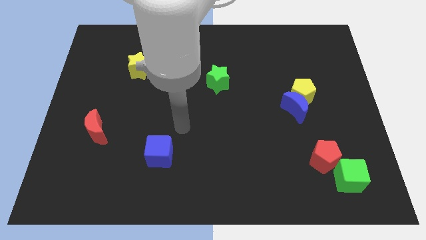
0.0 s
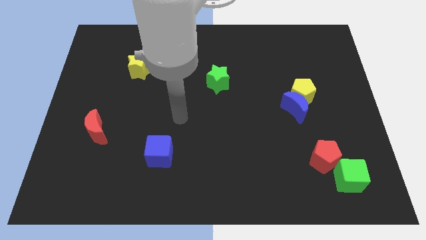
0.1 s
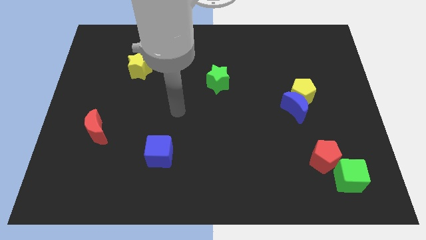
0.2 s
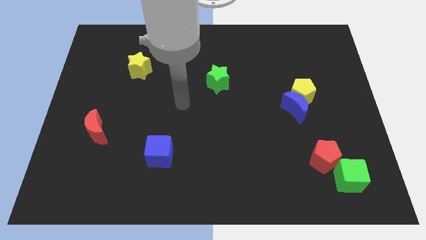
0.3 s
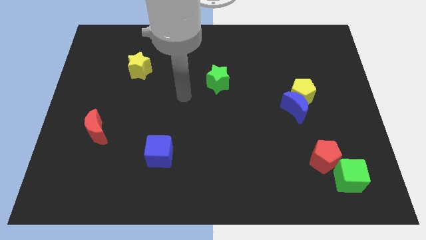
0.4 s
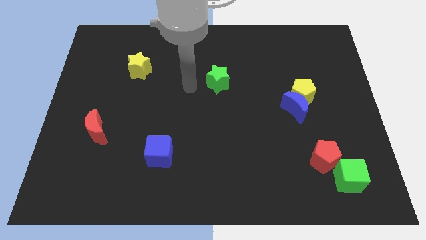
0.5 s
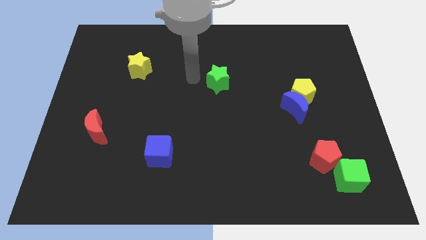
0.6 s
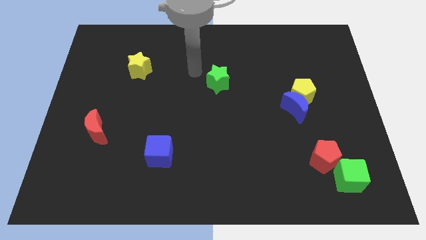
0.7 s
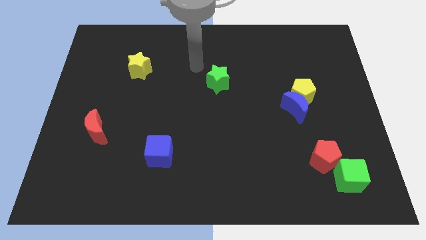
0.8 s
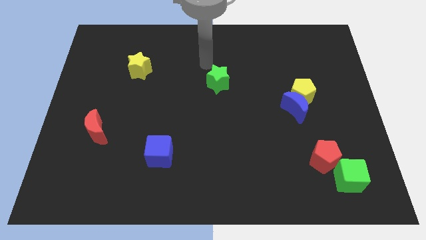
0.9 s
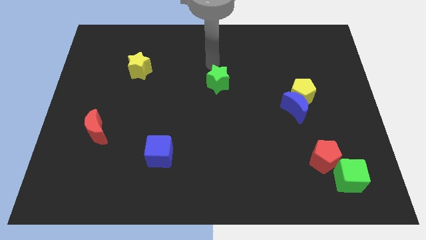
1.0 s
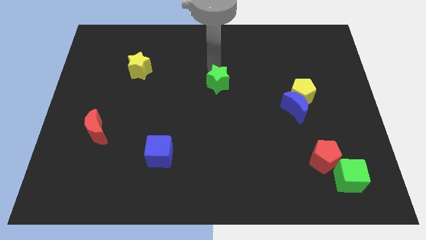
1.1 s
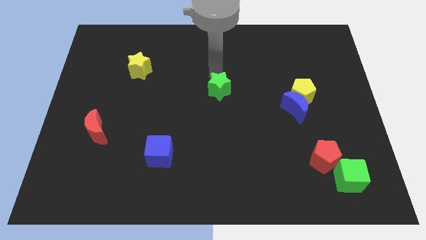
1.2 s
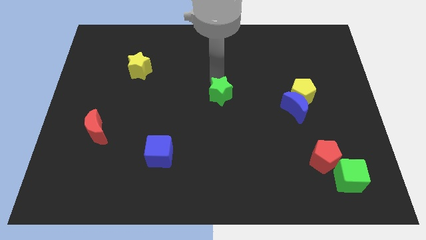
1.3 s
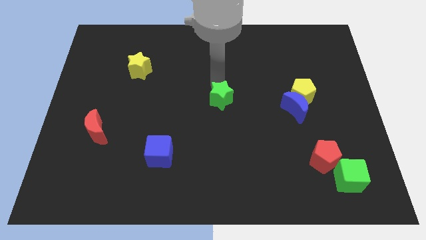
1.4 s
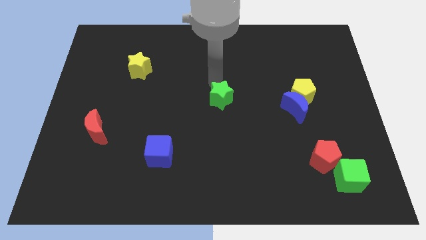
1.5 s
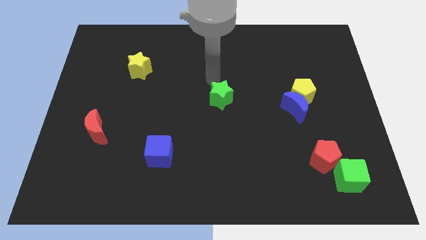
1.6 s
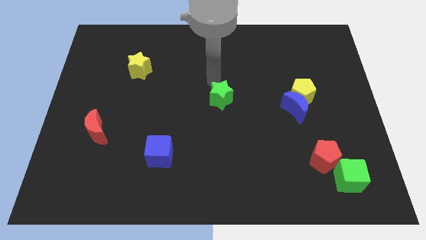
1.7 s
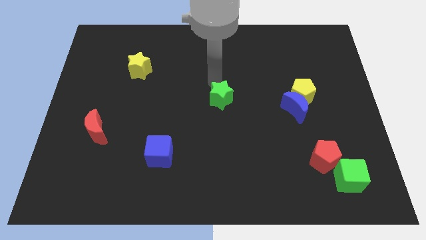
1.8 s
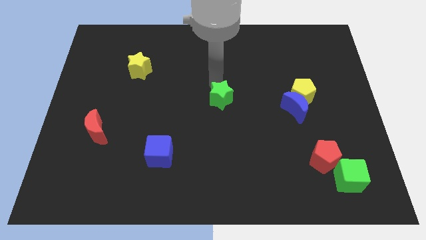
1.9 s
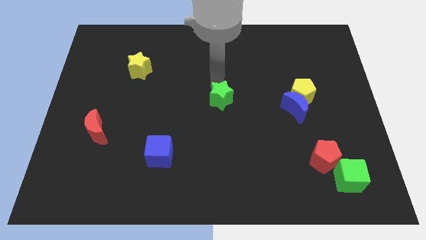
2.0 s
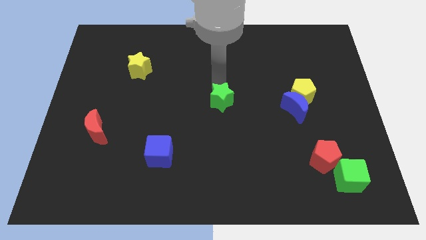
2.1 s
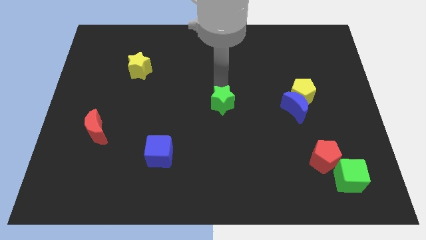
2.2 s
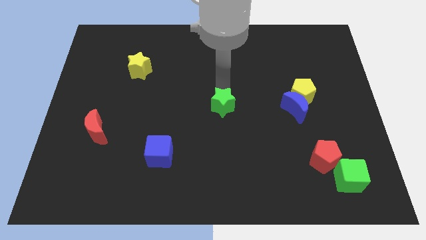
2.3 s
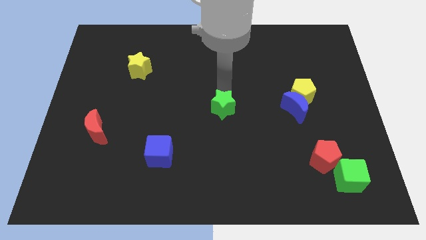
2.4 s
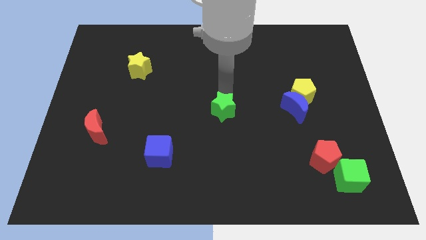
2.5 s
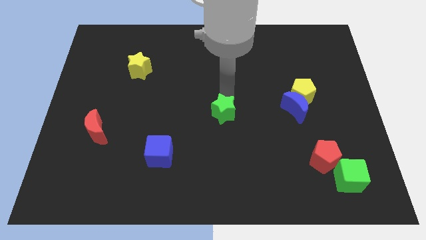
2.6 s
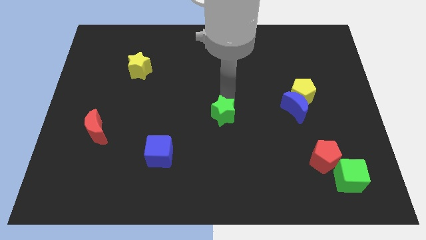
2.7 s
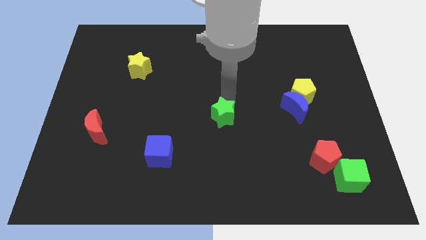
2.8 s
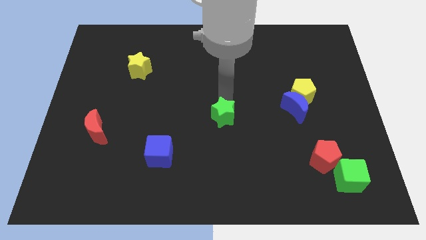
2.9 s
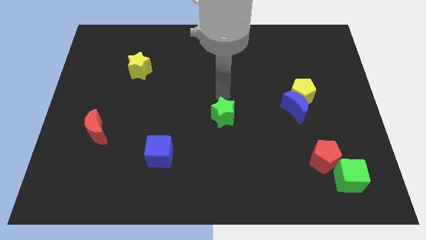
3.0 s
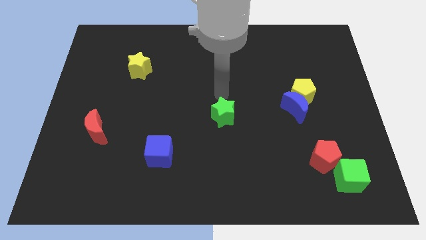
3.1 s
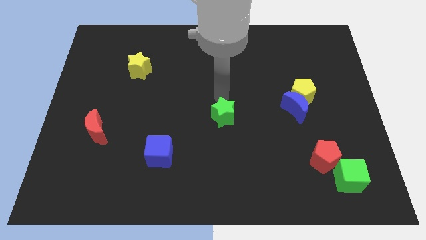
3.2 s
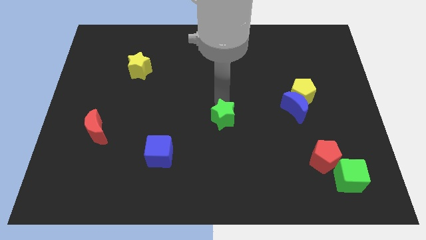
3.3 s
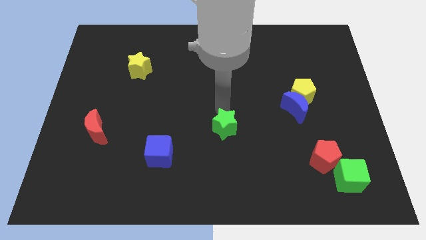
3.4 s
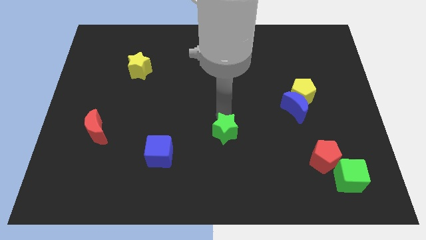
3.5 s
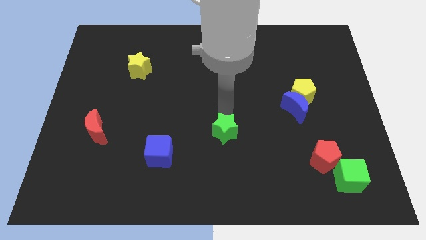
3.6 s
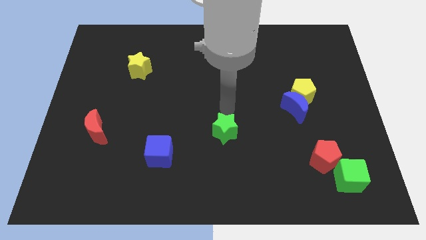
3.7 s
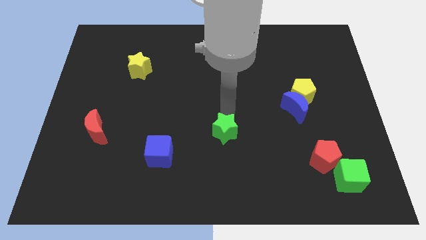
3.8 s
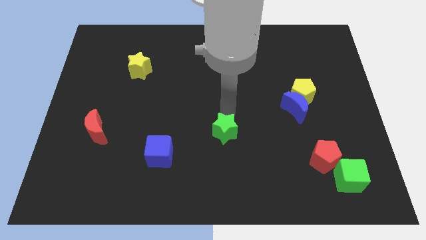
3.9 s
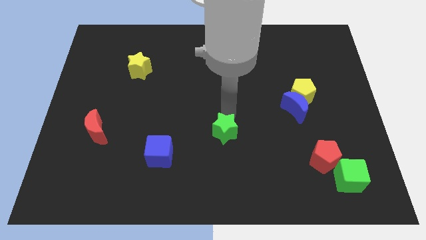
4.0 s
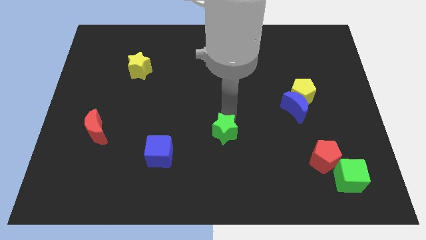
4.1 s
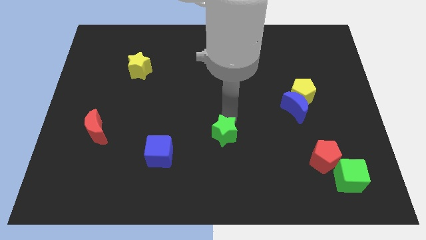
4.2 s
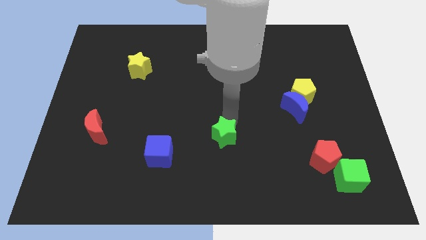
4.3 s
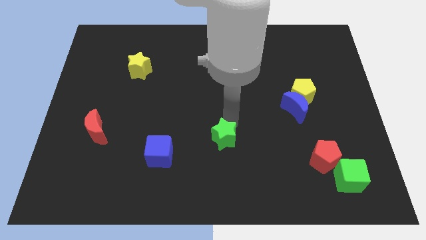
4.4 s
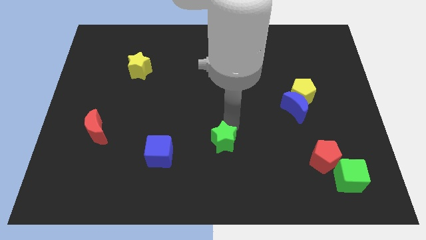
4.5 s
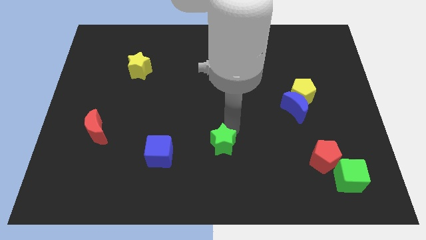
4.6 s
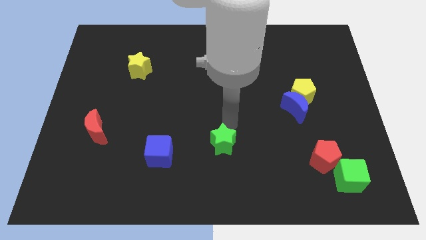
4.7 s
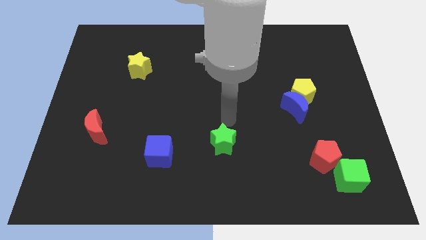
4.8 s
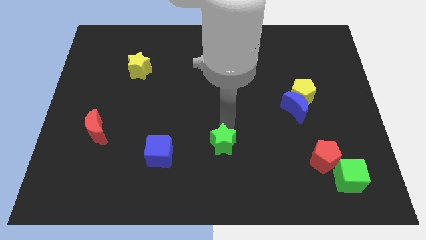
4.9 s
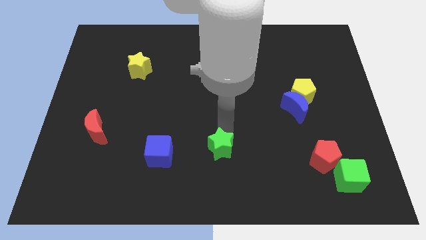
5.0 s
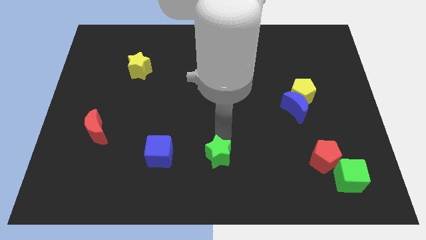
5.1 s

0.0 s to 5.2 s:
move the green star to the bottom

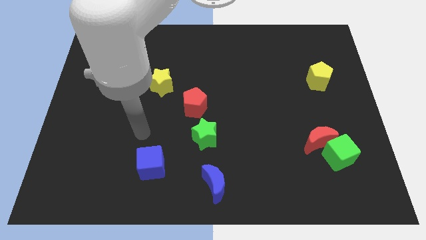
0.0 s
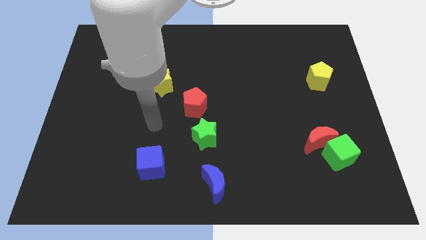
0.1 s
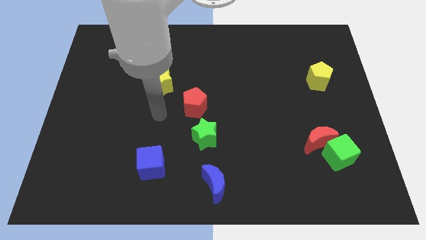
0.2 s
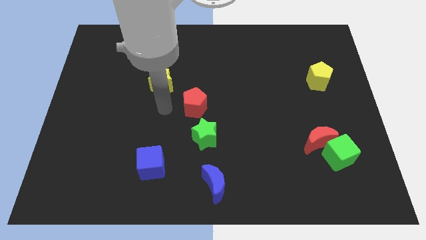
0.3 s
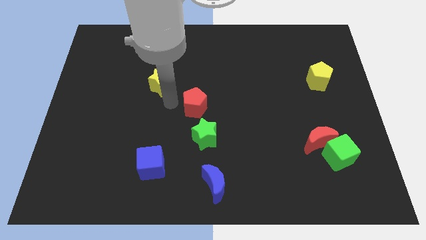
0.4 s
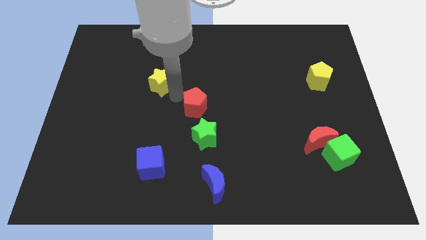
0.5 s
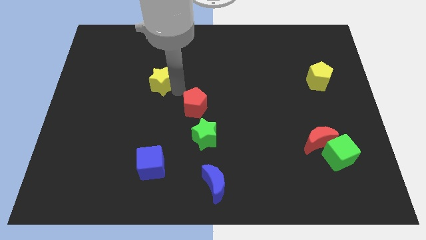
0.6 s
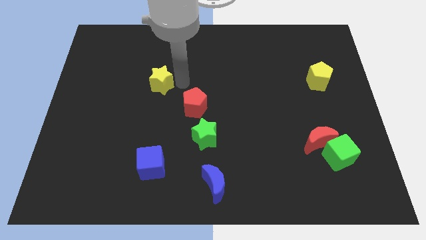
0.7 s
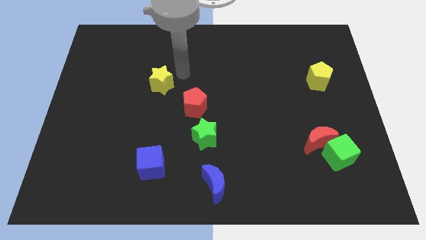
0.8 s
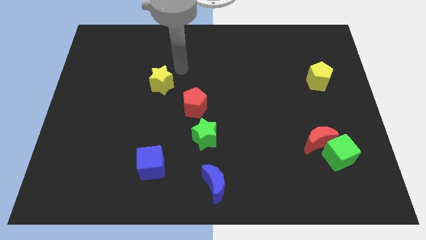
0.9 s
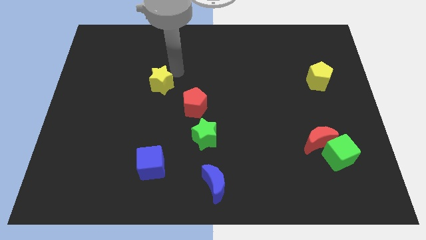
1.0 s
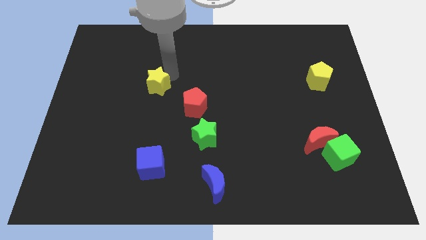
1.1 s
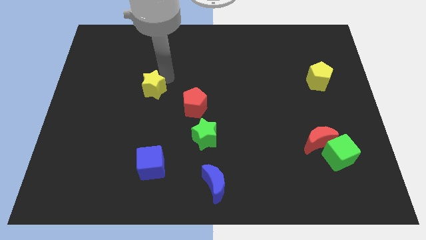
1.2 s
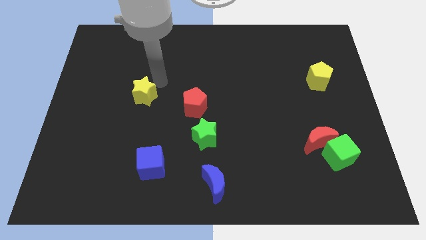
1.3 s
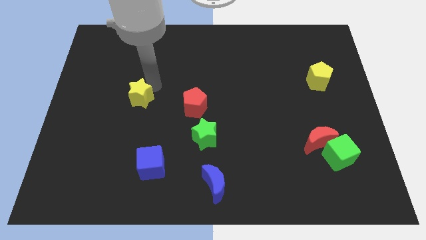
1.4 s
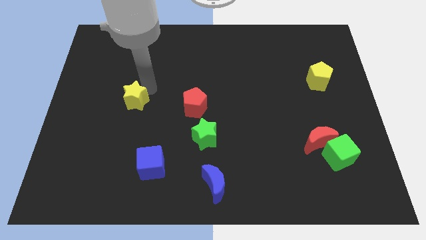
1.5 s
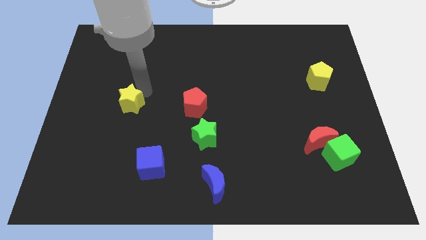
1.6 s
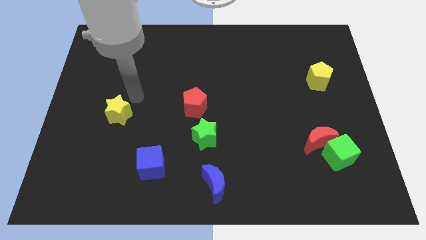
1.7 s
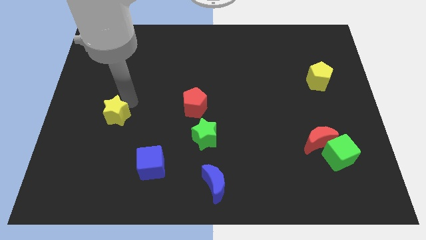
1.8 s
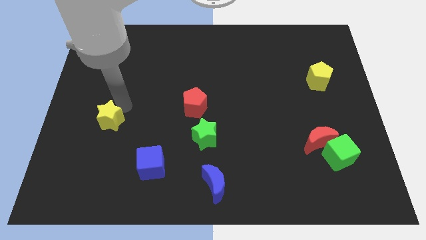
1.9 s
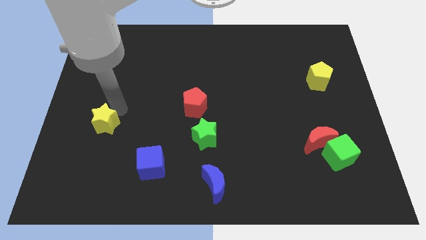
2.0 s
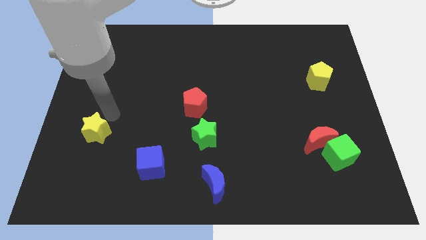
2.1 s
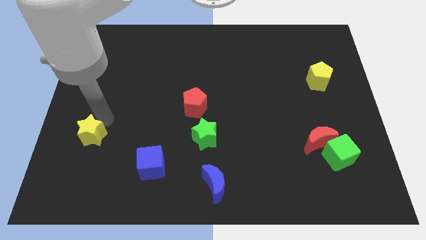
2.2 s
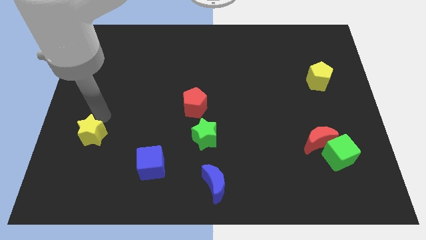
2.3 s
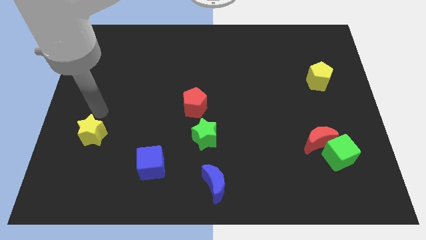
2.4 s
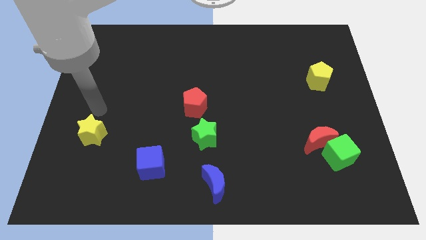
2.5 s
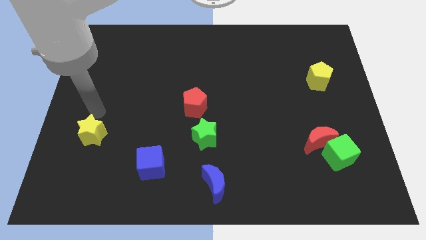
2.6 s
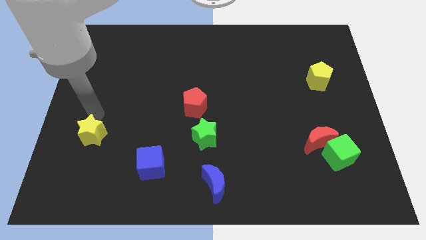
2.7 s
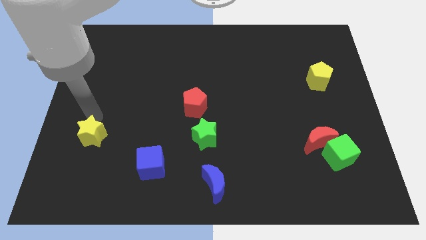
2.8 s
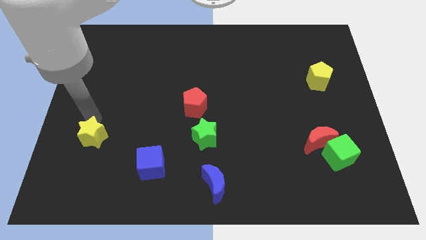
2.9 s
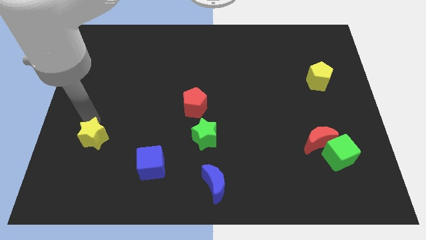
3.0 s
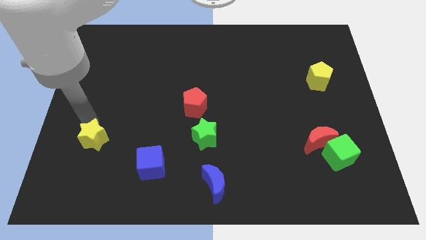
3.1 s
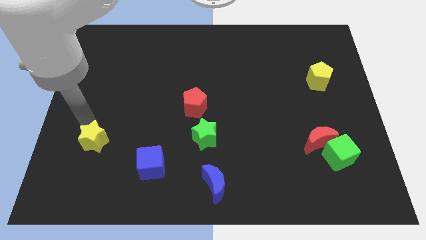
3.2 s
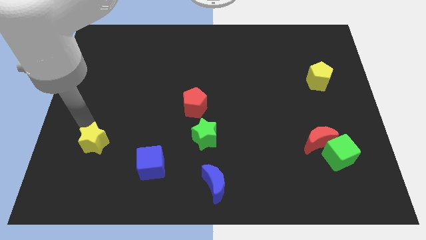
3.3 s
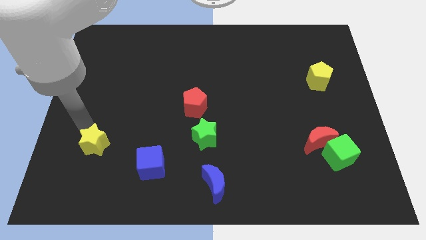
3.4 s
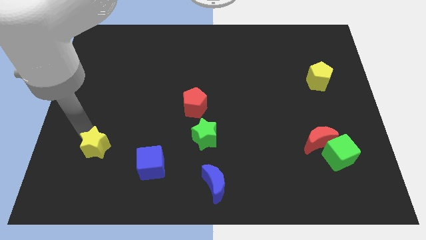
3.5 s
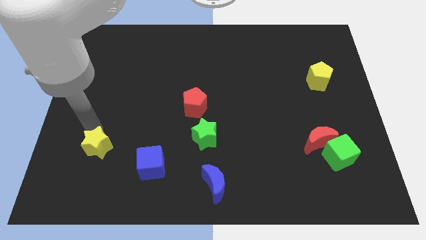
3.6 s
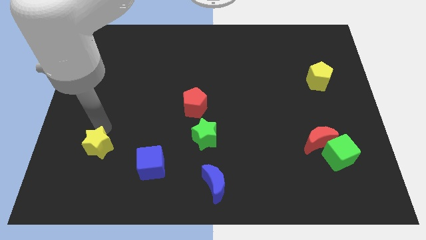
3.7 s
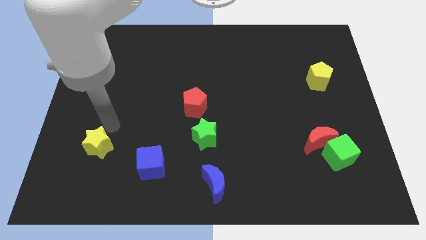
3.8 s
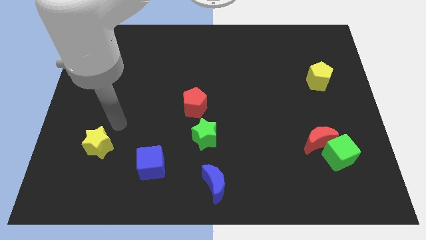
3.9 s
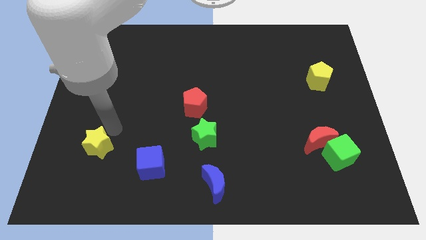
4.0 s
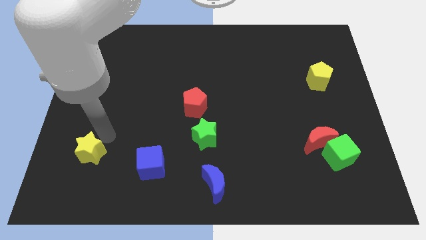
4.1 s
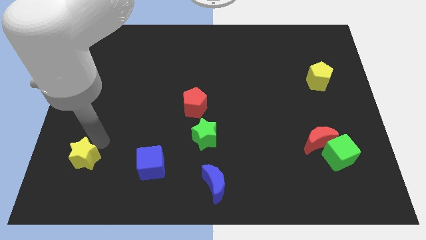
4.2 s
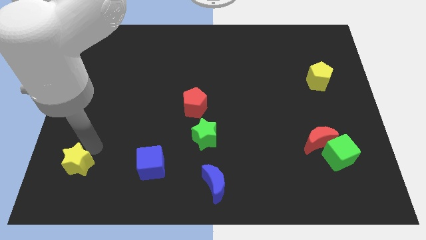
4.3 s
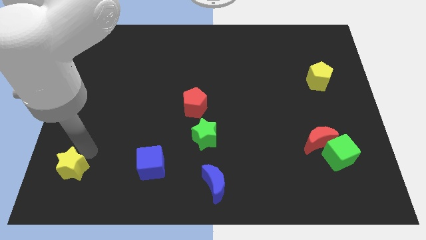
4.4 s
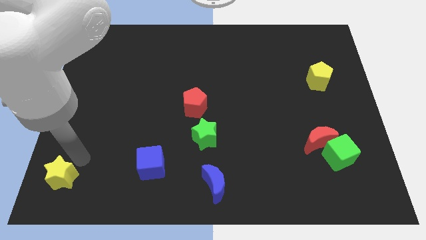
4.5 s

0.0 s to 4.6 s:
move the yellow star to the lower left corner
